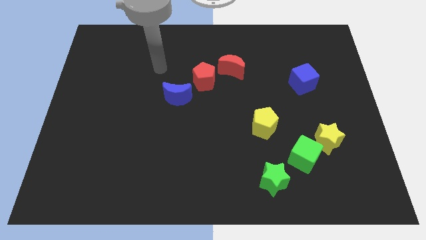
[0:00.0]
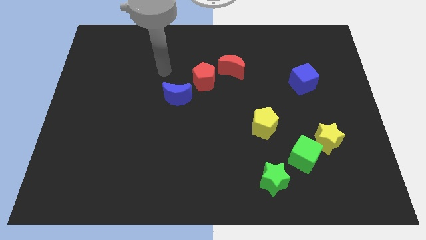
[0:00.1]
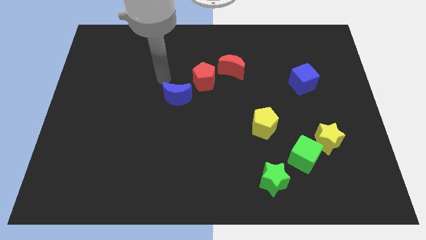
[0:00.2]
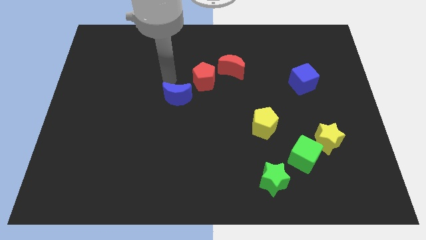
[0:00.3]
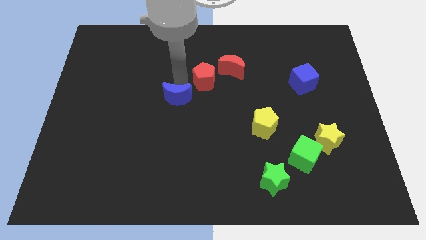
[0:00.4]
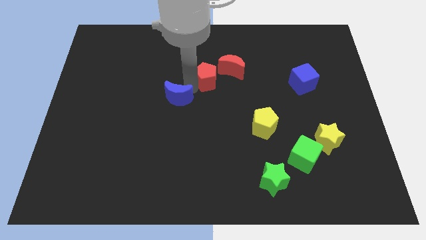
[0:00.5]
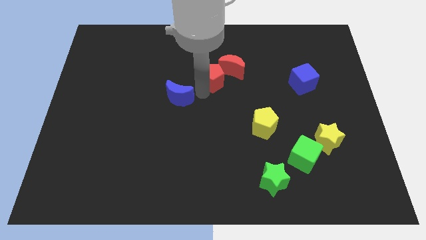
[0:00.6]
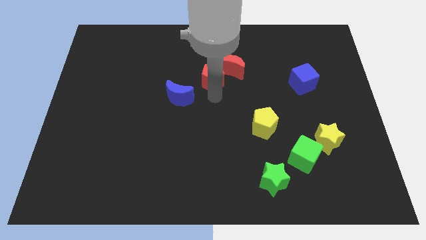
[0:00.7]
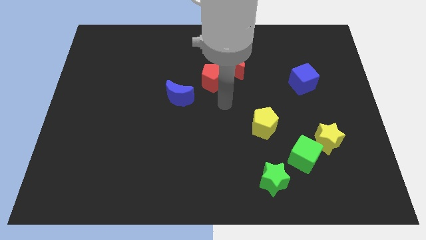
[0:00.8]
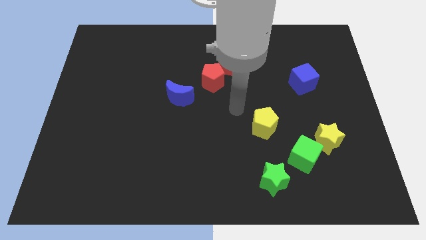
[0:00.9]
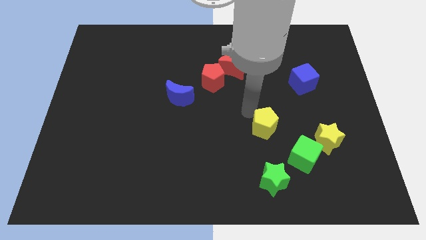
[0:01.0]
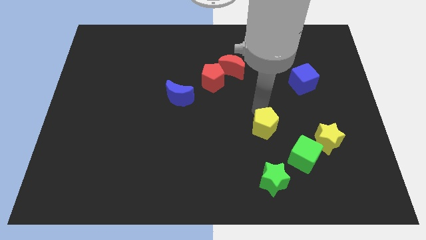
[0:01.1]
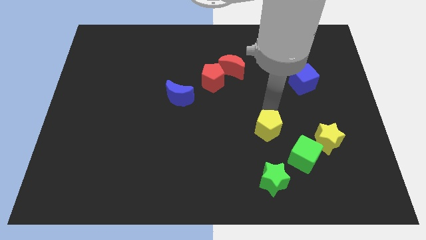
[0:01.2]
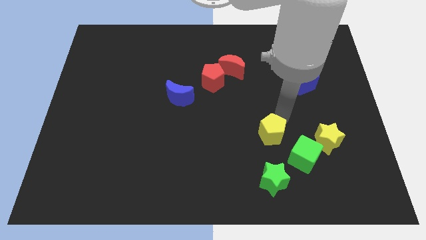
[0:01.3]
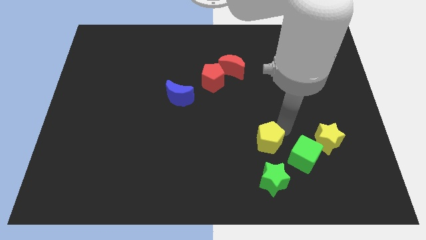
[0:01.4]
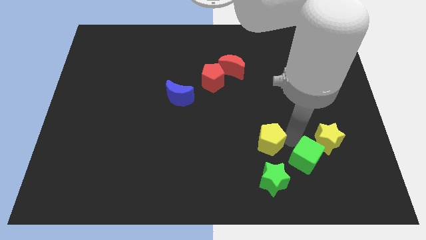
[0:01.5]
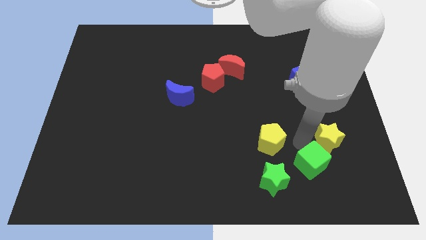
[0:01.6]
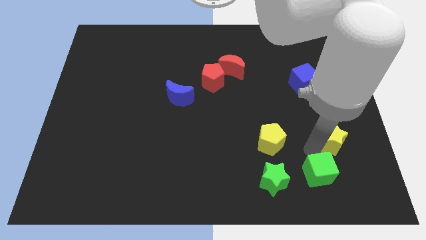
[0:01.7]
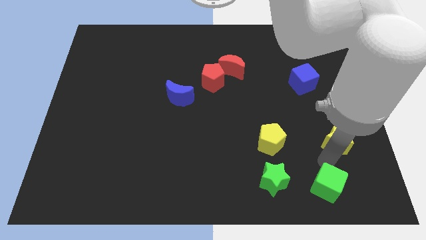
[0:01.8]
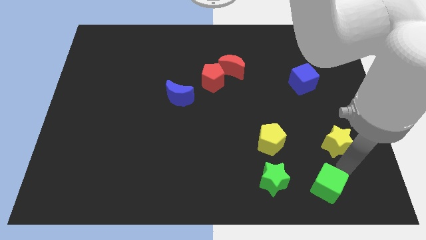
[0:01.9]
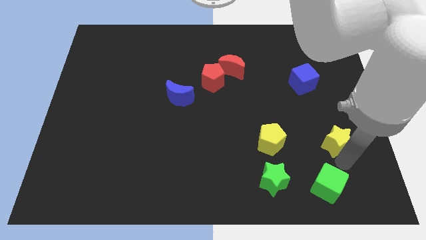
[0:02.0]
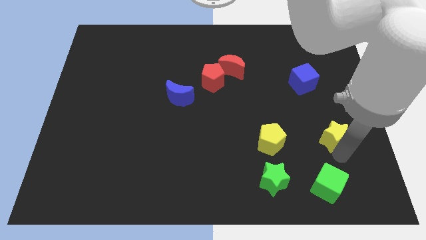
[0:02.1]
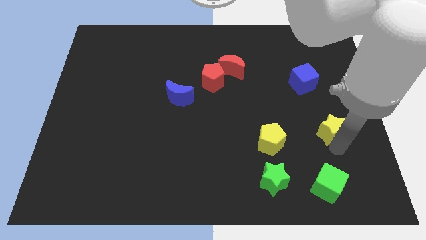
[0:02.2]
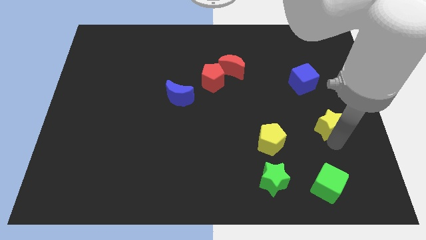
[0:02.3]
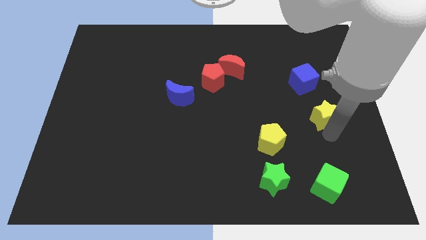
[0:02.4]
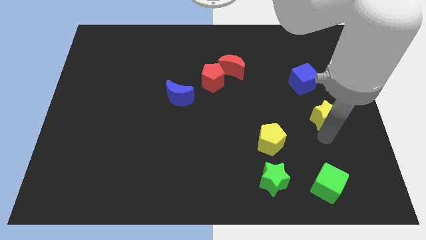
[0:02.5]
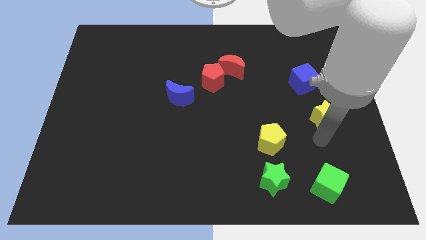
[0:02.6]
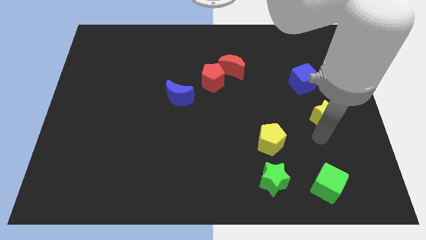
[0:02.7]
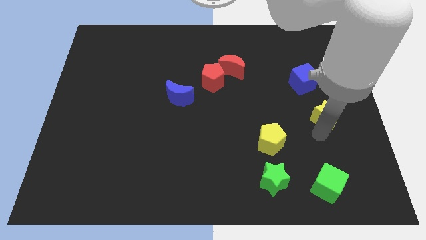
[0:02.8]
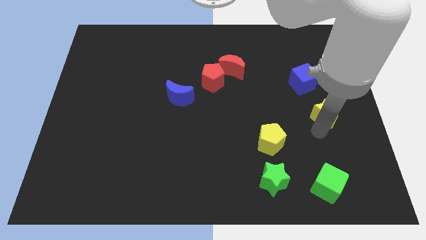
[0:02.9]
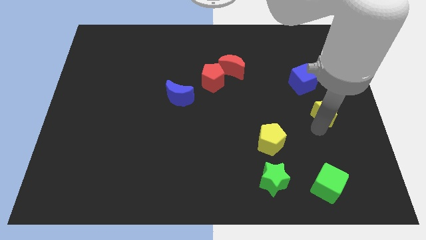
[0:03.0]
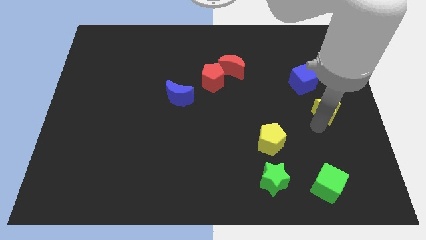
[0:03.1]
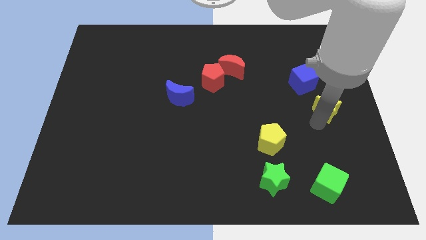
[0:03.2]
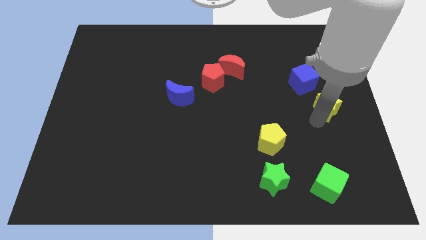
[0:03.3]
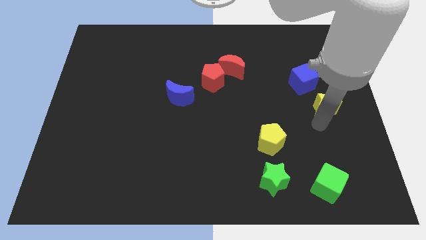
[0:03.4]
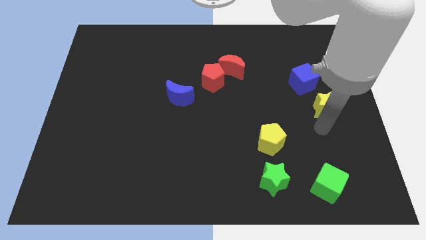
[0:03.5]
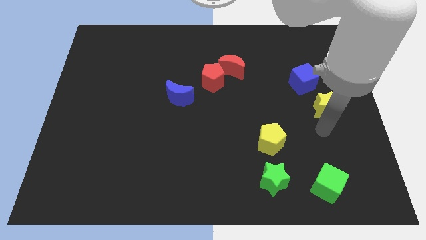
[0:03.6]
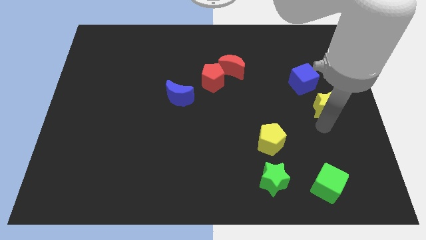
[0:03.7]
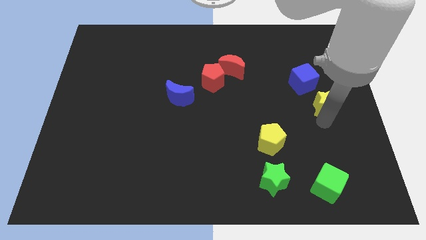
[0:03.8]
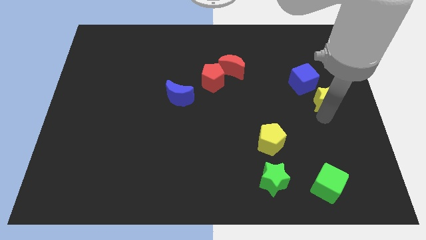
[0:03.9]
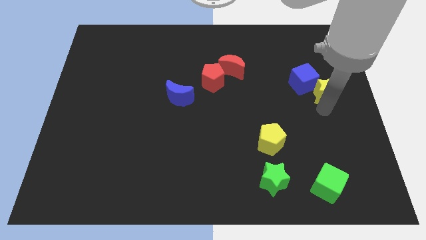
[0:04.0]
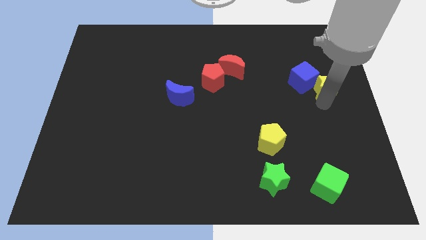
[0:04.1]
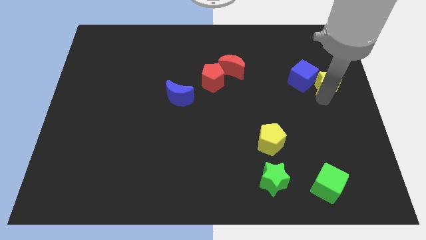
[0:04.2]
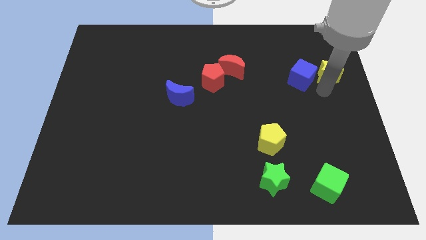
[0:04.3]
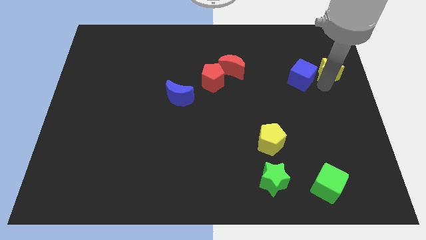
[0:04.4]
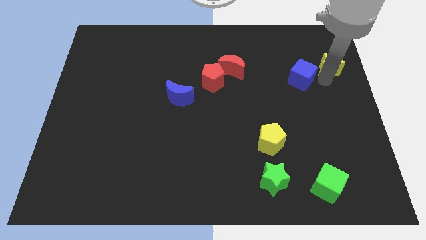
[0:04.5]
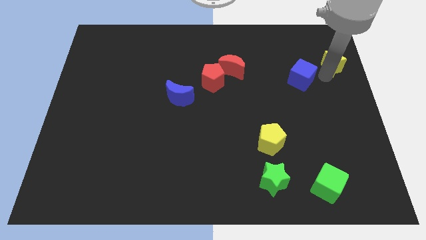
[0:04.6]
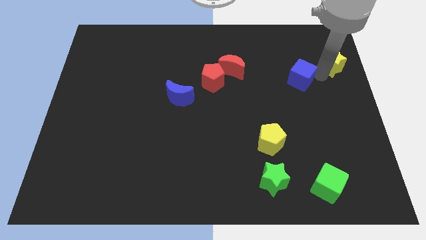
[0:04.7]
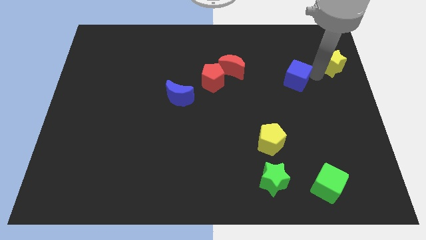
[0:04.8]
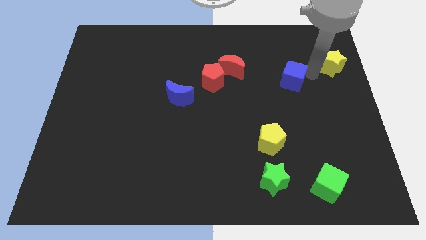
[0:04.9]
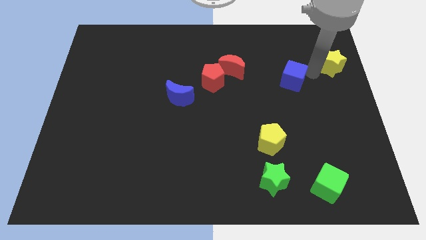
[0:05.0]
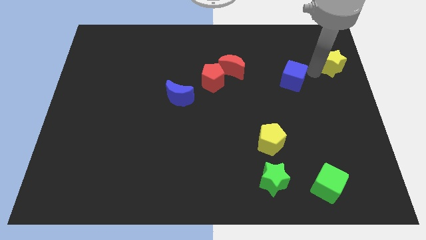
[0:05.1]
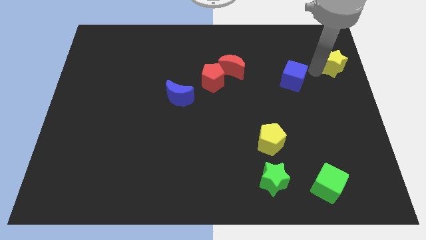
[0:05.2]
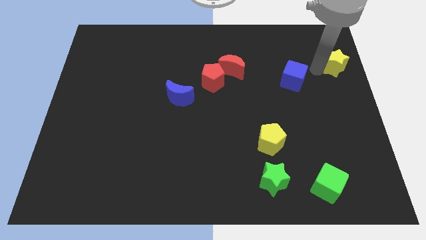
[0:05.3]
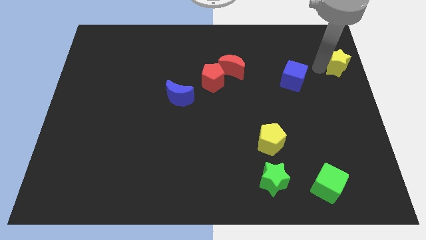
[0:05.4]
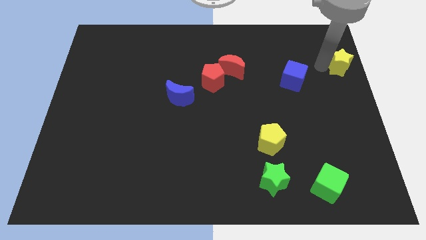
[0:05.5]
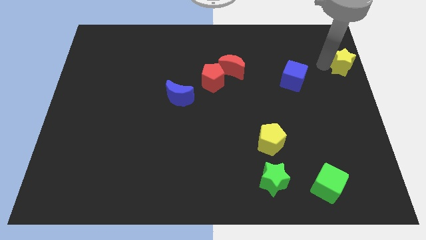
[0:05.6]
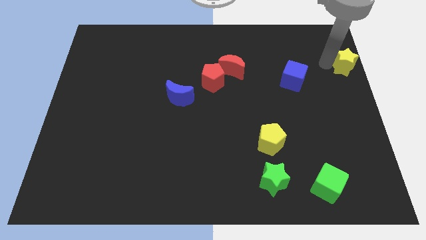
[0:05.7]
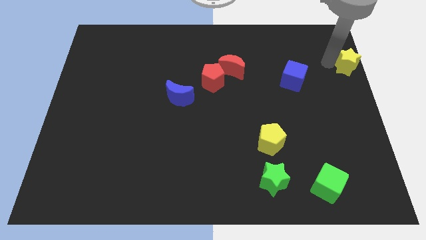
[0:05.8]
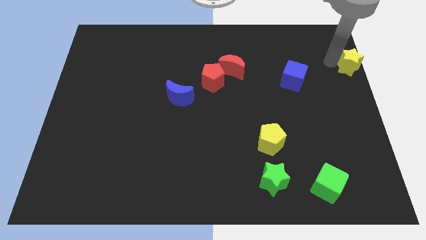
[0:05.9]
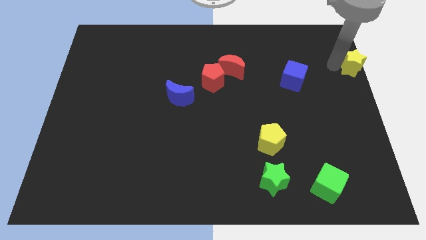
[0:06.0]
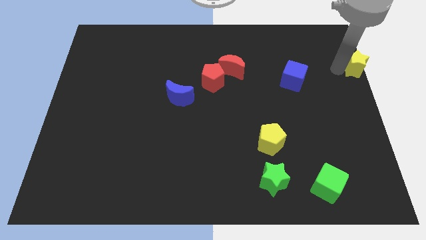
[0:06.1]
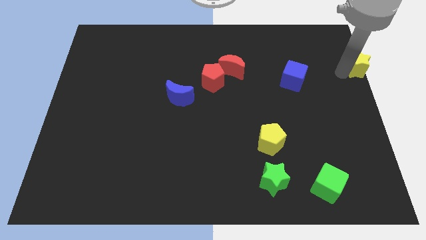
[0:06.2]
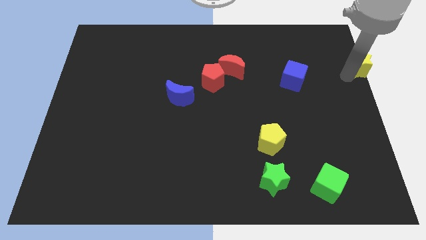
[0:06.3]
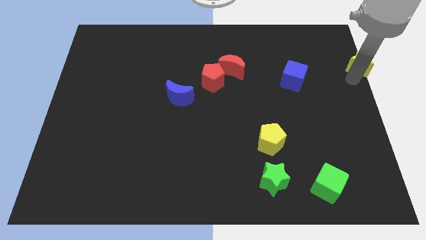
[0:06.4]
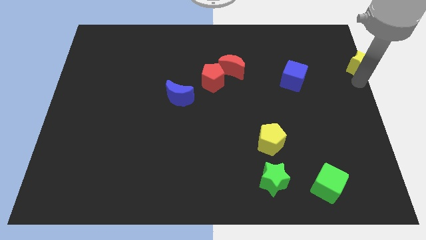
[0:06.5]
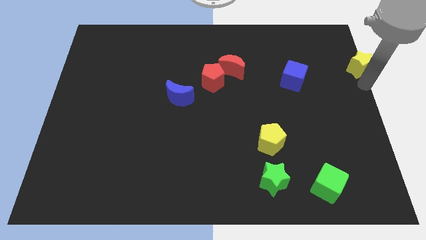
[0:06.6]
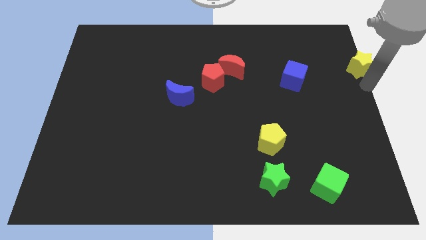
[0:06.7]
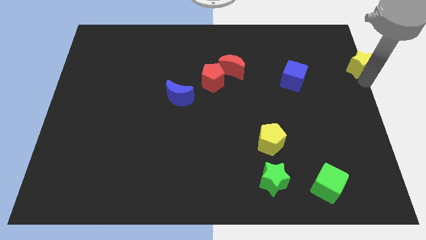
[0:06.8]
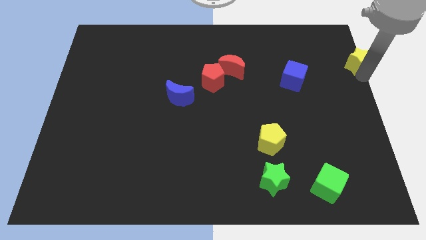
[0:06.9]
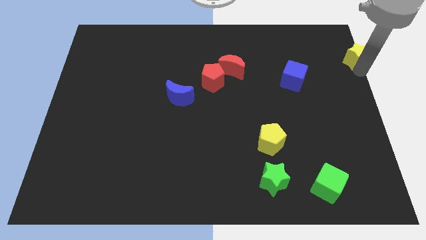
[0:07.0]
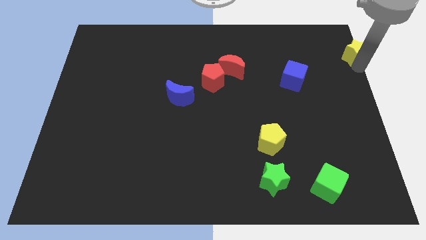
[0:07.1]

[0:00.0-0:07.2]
push the yellow star to the top right
